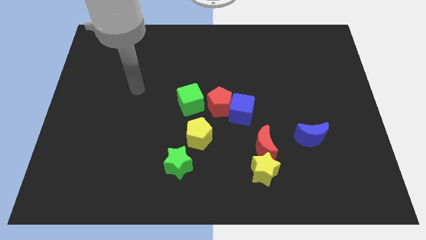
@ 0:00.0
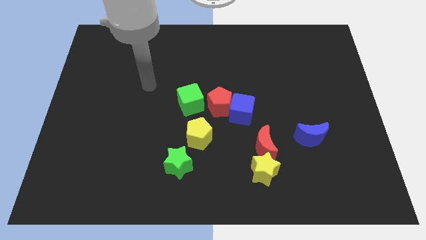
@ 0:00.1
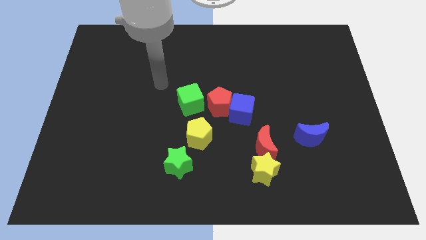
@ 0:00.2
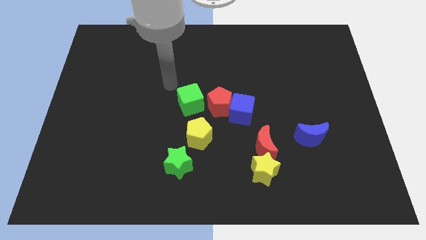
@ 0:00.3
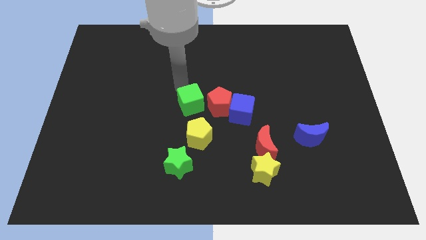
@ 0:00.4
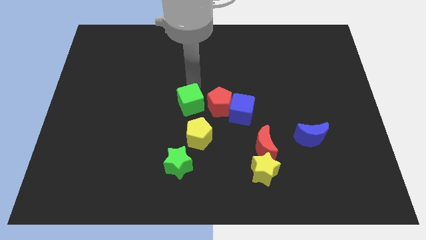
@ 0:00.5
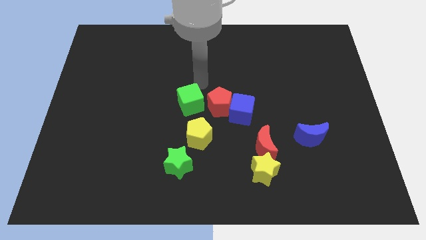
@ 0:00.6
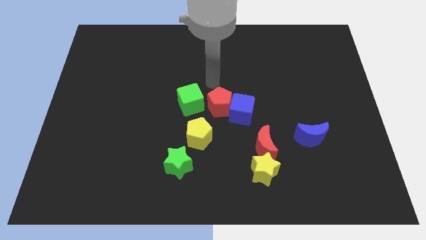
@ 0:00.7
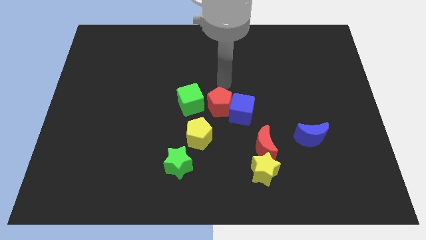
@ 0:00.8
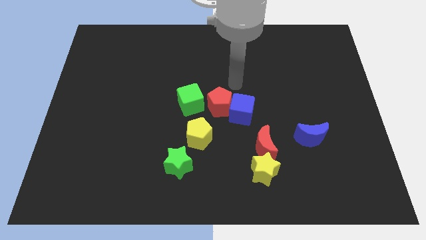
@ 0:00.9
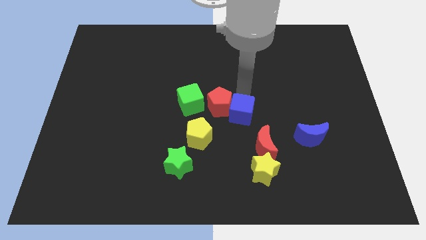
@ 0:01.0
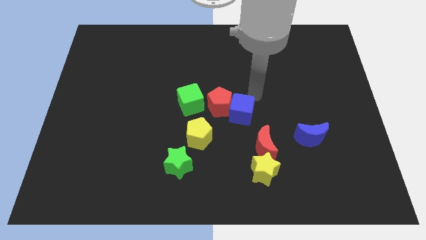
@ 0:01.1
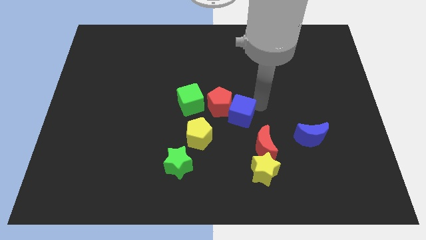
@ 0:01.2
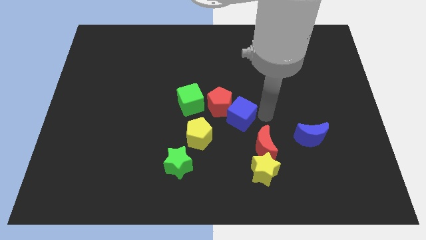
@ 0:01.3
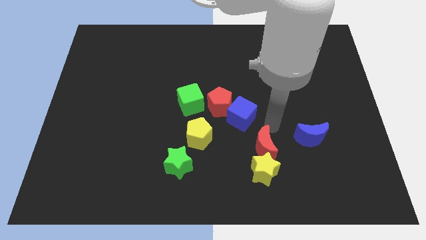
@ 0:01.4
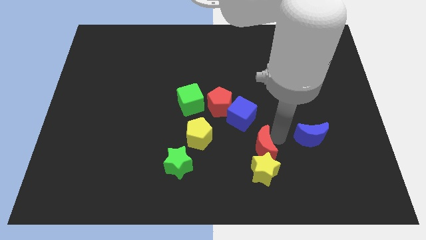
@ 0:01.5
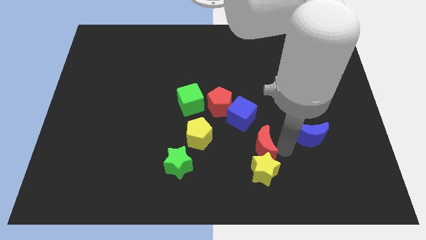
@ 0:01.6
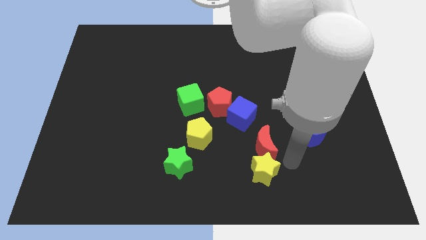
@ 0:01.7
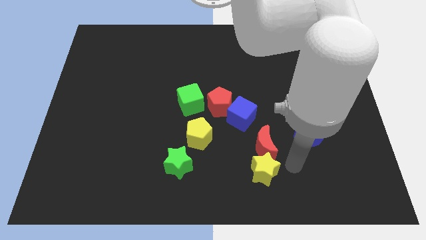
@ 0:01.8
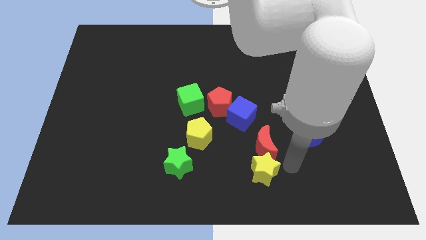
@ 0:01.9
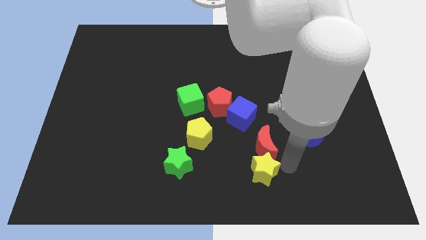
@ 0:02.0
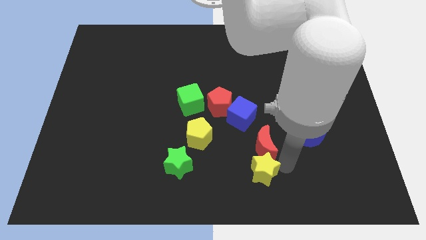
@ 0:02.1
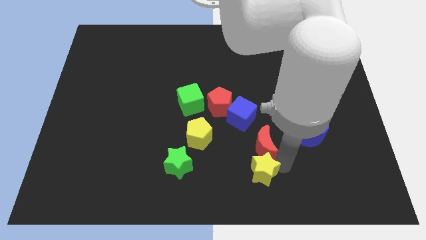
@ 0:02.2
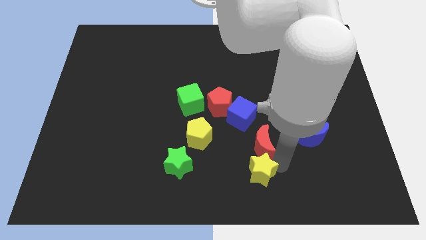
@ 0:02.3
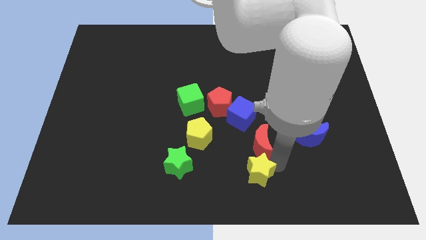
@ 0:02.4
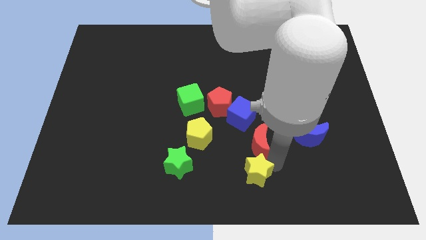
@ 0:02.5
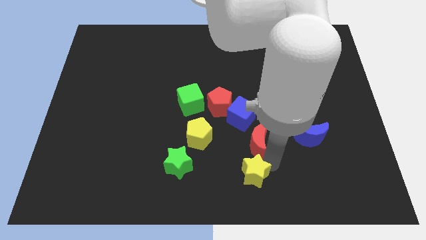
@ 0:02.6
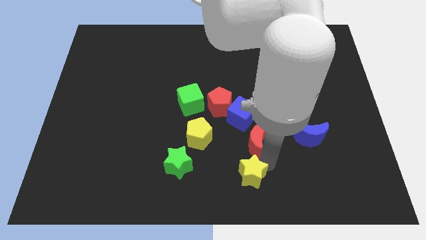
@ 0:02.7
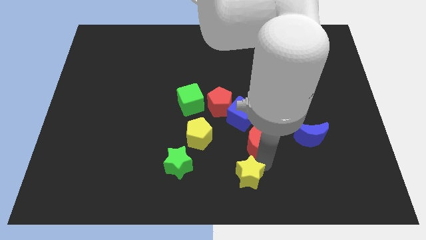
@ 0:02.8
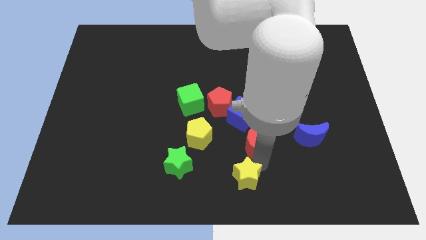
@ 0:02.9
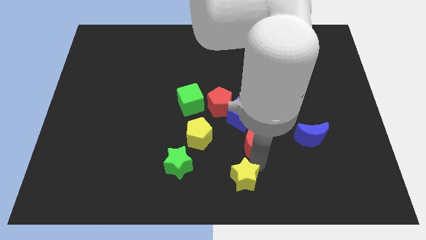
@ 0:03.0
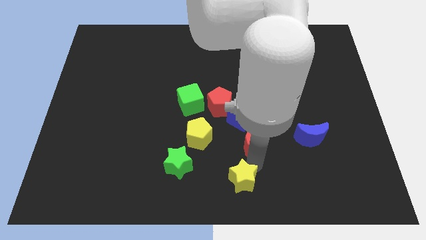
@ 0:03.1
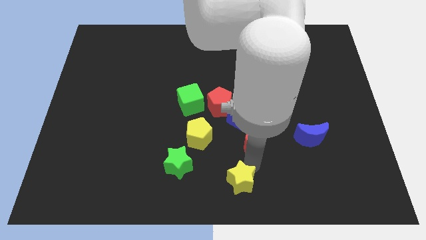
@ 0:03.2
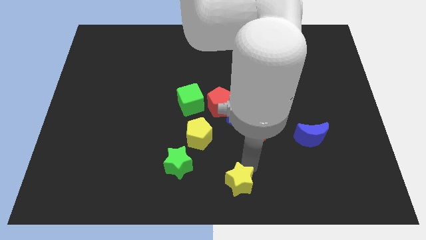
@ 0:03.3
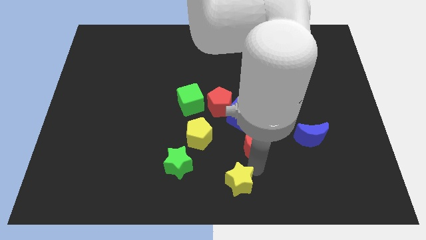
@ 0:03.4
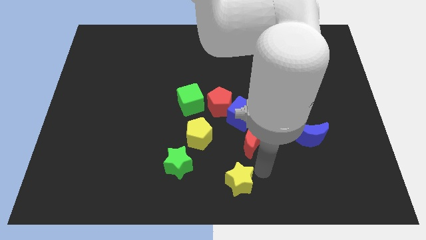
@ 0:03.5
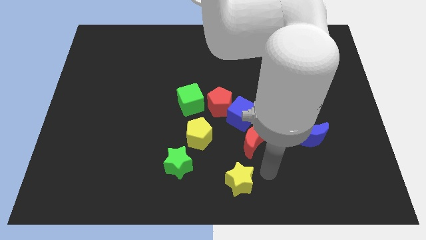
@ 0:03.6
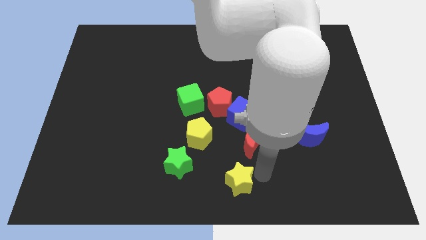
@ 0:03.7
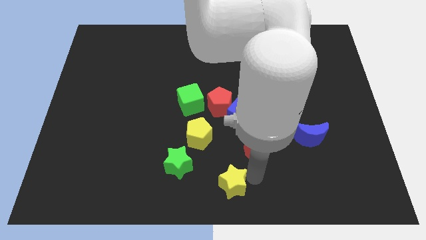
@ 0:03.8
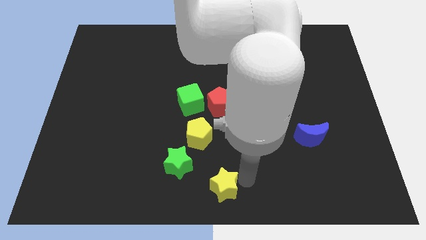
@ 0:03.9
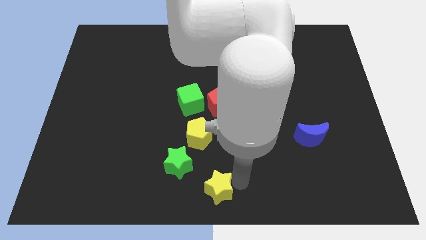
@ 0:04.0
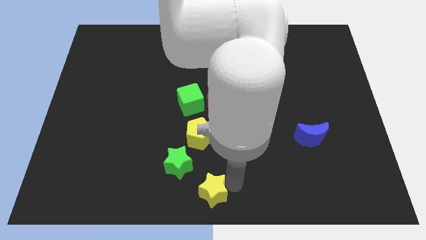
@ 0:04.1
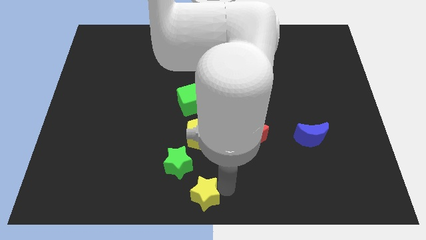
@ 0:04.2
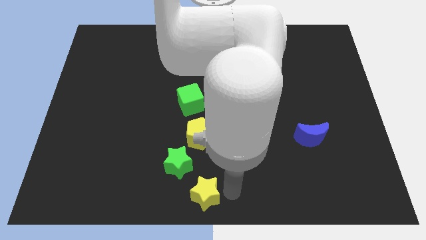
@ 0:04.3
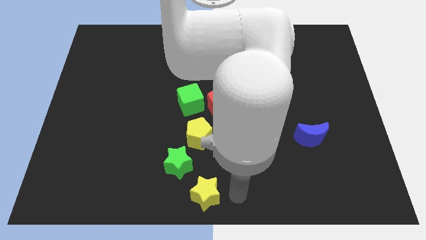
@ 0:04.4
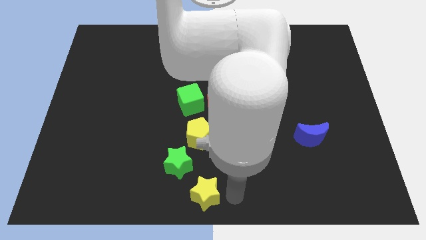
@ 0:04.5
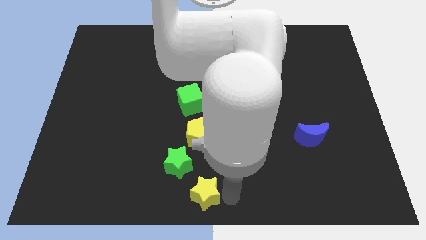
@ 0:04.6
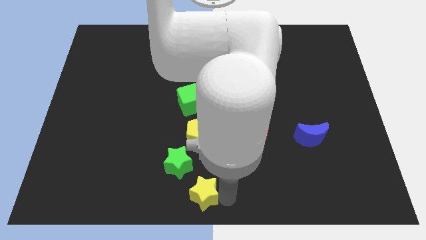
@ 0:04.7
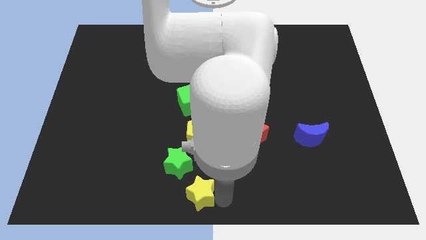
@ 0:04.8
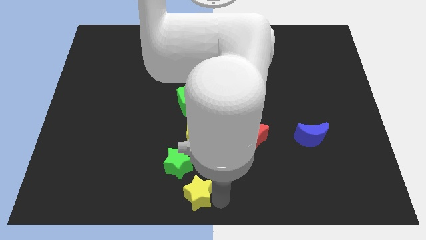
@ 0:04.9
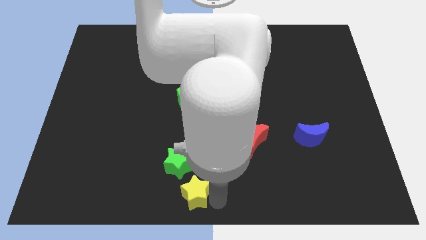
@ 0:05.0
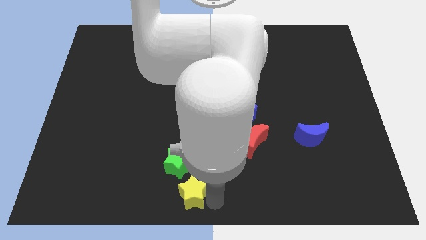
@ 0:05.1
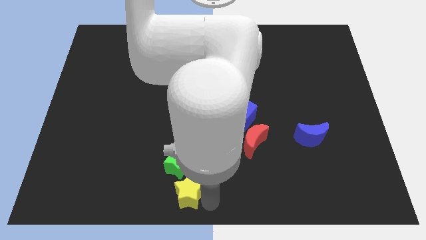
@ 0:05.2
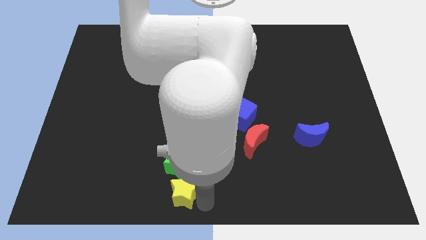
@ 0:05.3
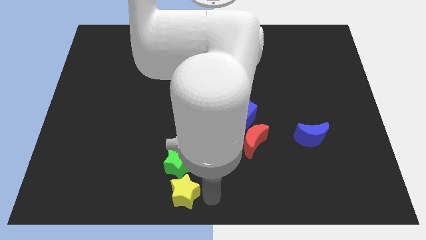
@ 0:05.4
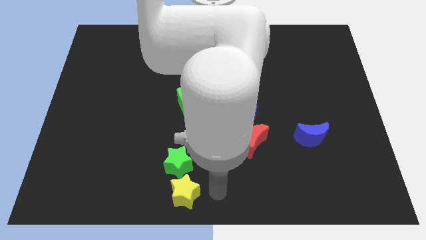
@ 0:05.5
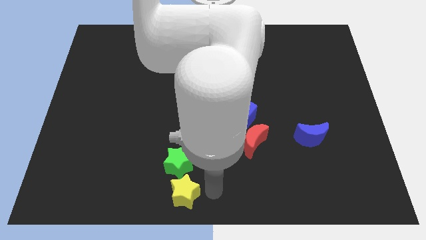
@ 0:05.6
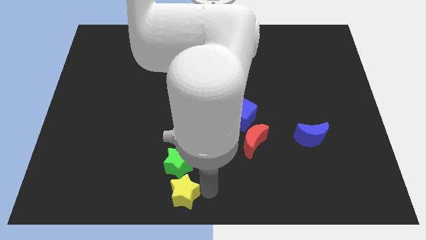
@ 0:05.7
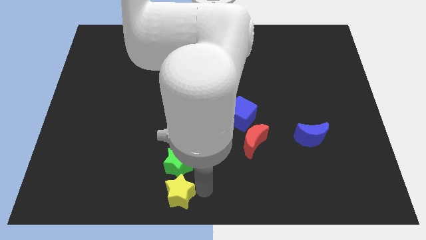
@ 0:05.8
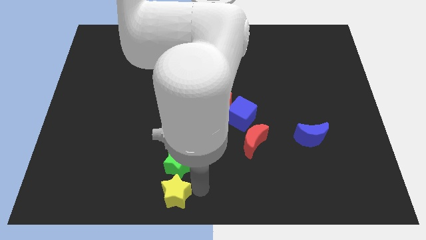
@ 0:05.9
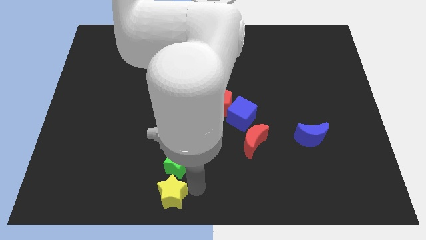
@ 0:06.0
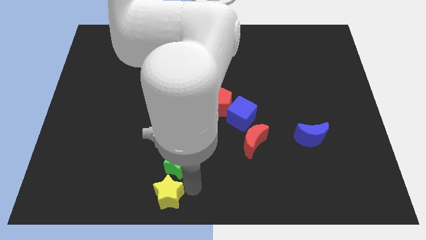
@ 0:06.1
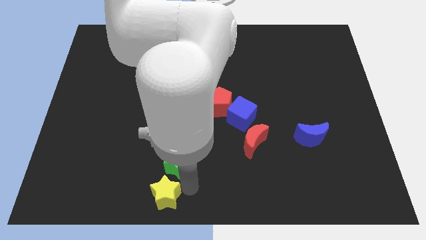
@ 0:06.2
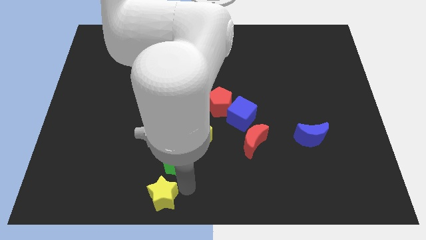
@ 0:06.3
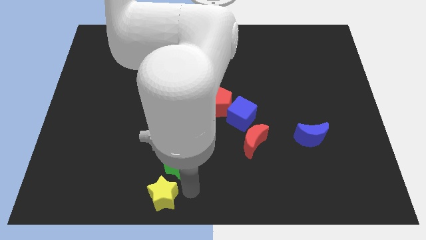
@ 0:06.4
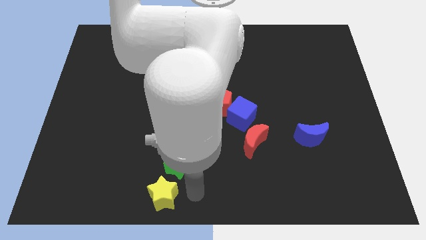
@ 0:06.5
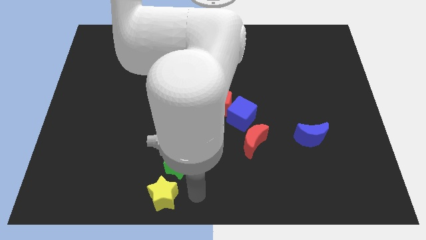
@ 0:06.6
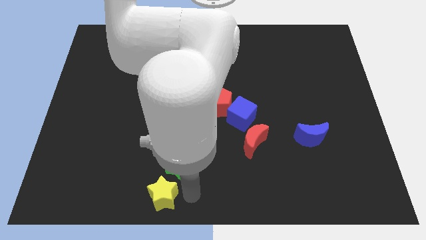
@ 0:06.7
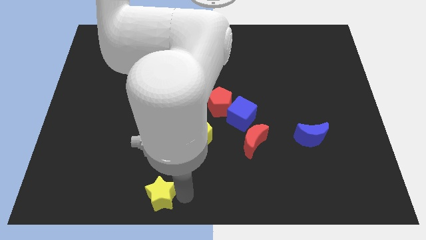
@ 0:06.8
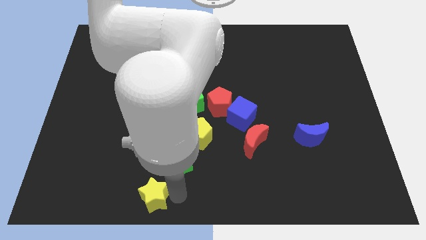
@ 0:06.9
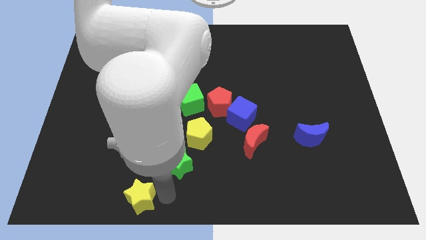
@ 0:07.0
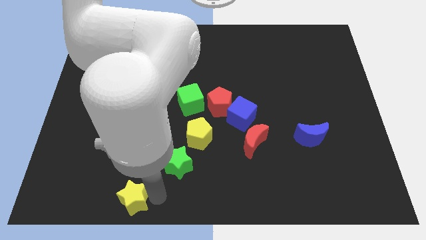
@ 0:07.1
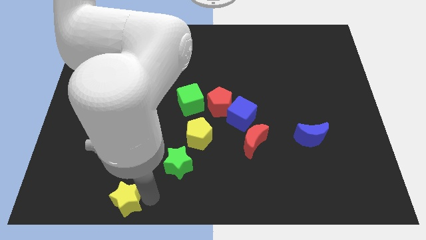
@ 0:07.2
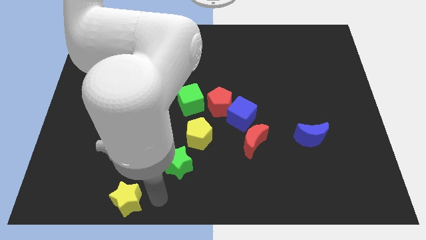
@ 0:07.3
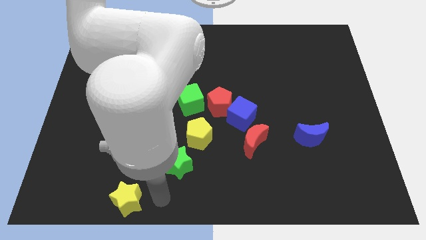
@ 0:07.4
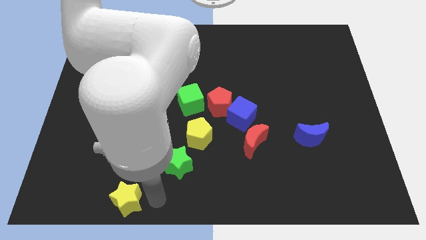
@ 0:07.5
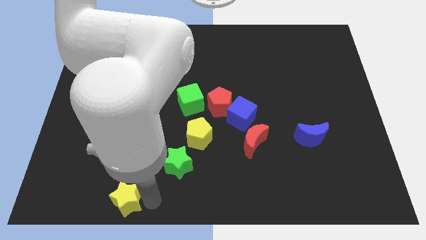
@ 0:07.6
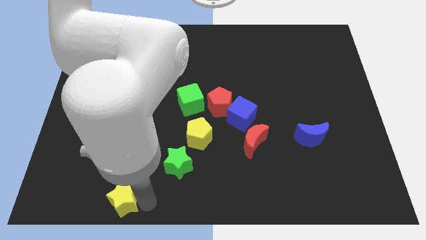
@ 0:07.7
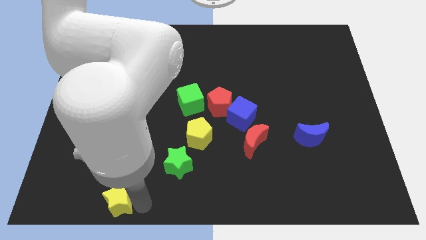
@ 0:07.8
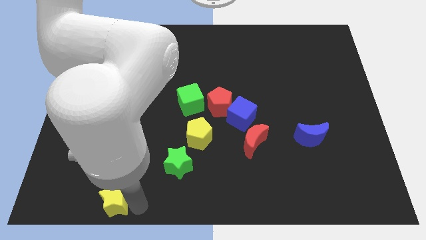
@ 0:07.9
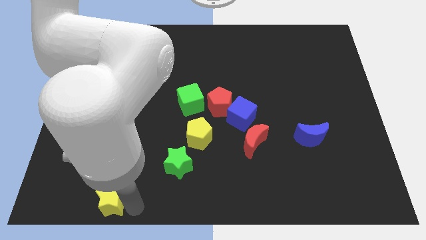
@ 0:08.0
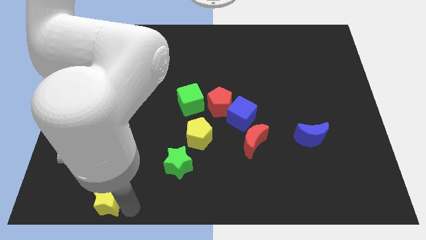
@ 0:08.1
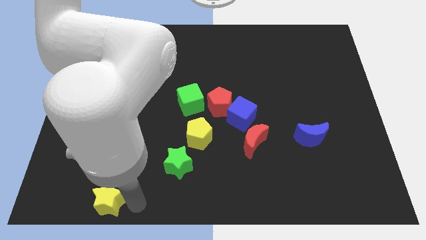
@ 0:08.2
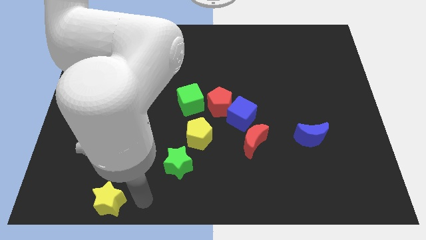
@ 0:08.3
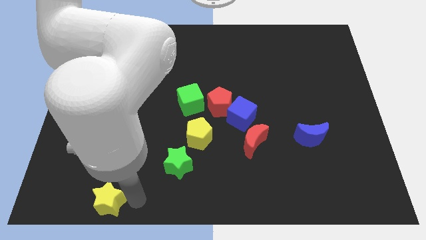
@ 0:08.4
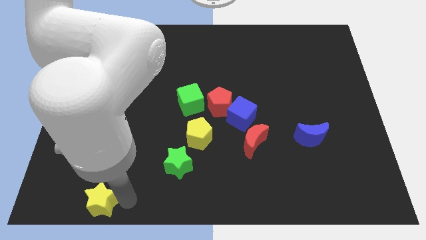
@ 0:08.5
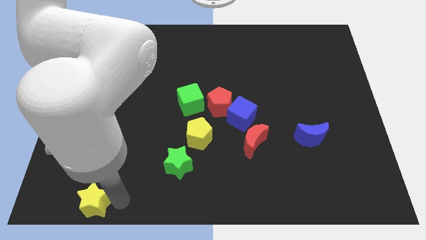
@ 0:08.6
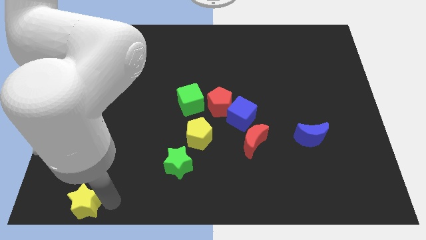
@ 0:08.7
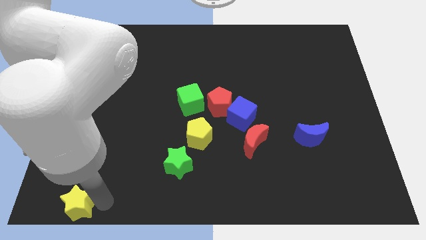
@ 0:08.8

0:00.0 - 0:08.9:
put the yellow star to the bottom left corner
